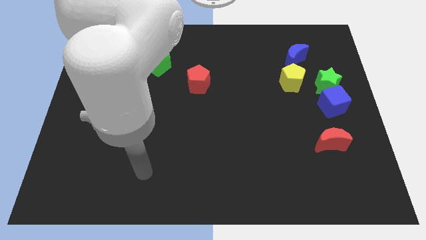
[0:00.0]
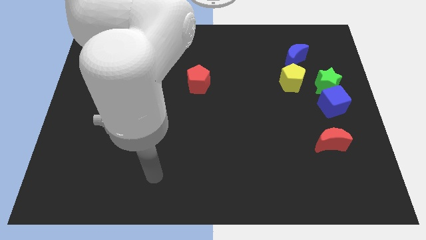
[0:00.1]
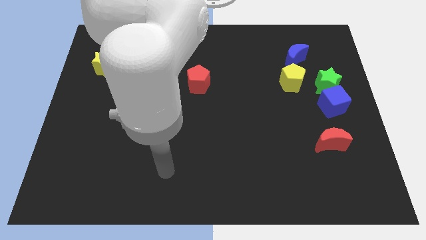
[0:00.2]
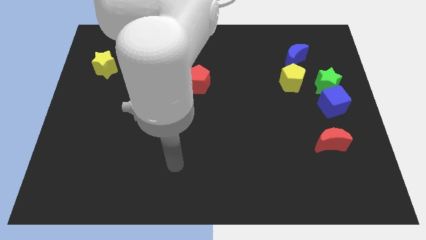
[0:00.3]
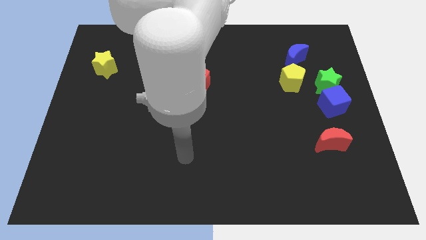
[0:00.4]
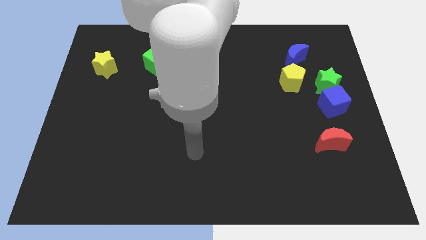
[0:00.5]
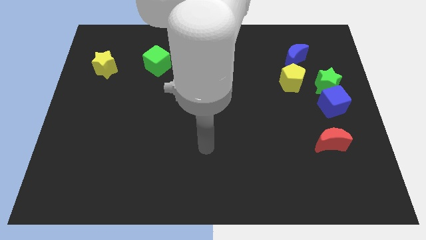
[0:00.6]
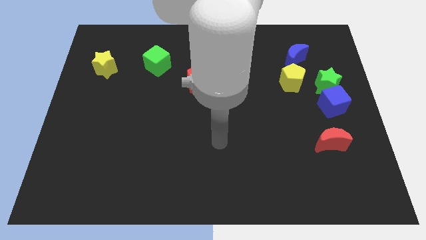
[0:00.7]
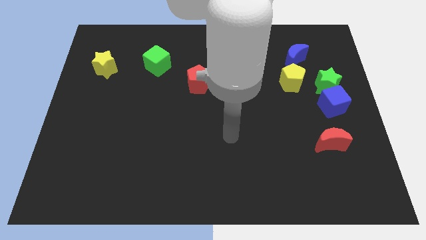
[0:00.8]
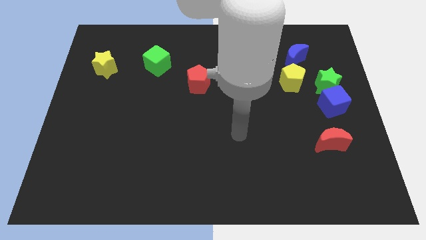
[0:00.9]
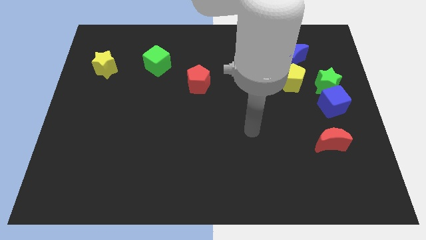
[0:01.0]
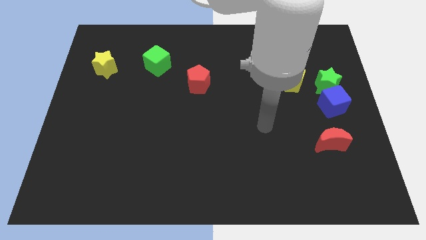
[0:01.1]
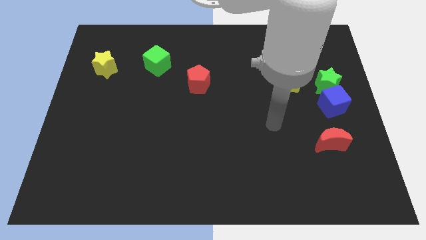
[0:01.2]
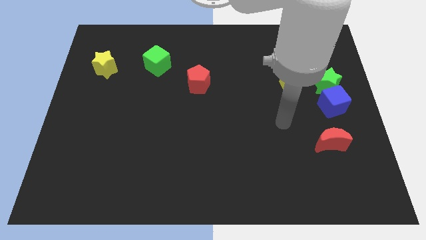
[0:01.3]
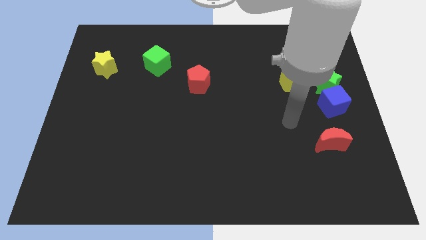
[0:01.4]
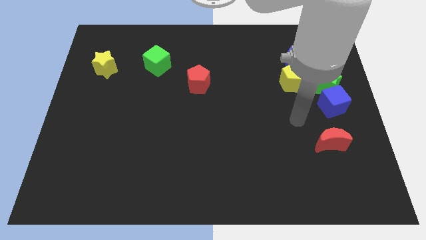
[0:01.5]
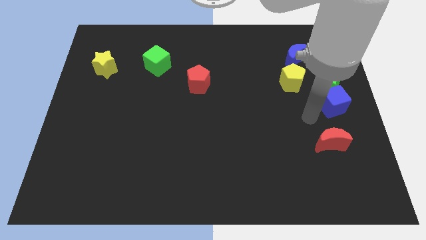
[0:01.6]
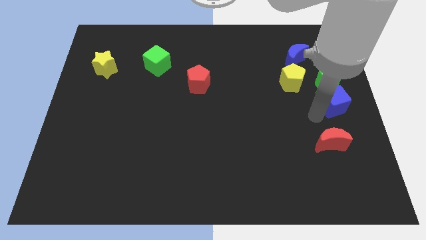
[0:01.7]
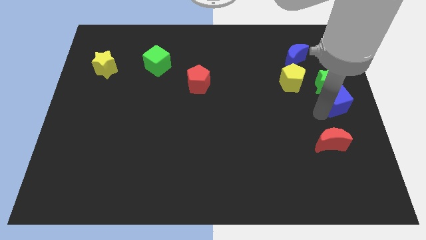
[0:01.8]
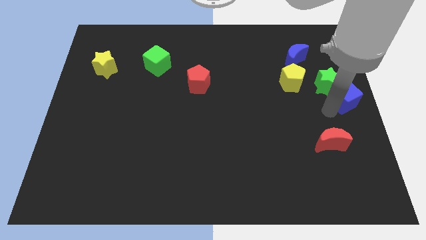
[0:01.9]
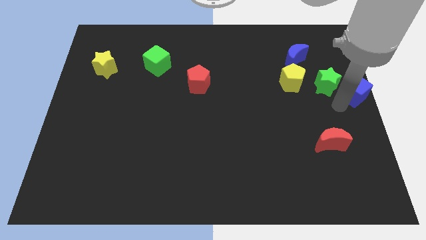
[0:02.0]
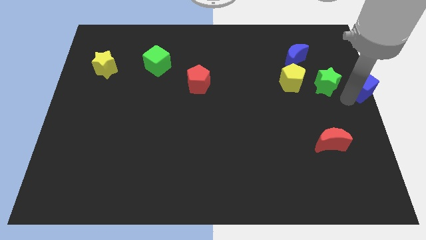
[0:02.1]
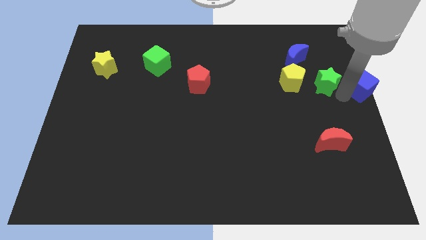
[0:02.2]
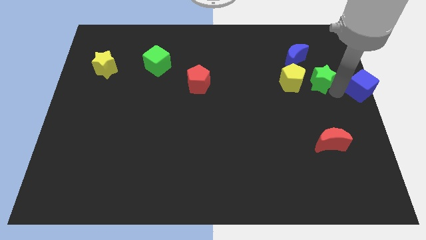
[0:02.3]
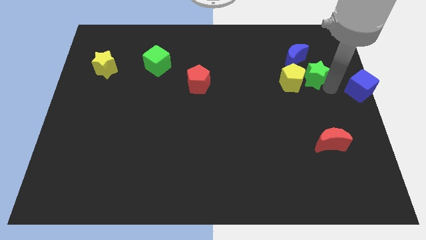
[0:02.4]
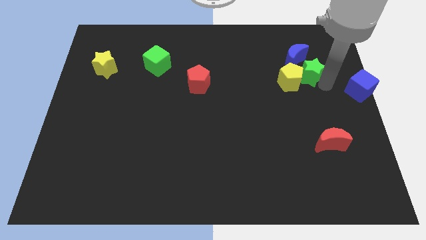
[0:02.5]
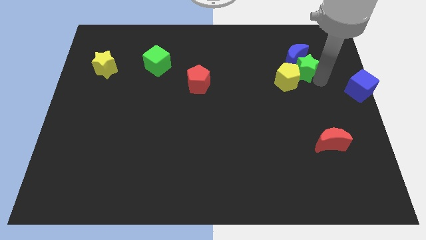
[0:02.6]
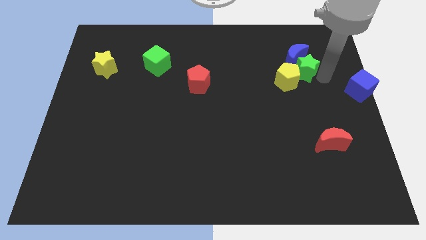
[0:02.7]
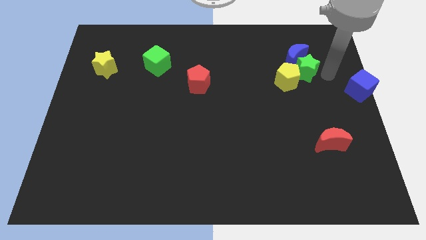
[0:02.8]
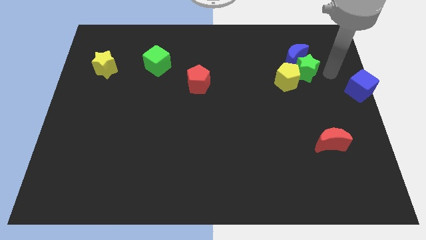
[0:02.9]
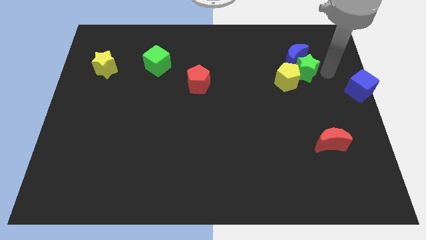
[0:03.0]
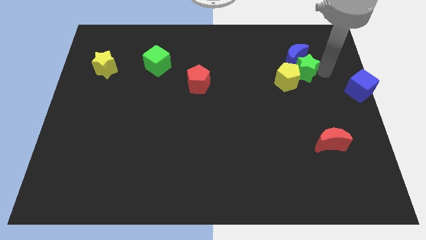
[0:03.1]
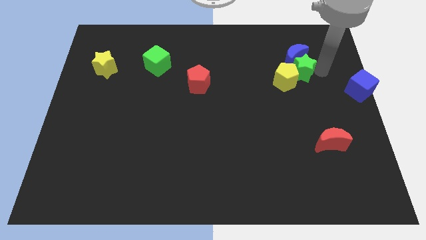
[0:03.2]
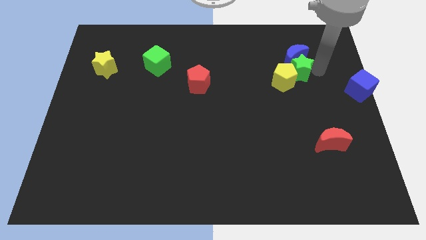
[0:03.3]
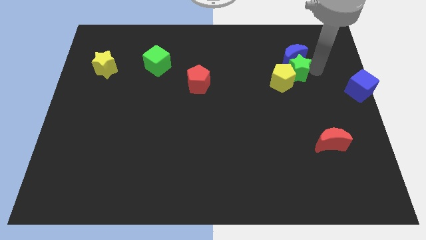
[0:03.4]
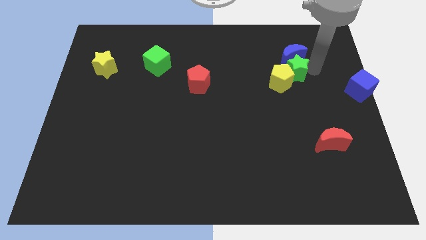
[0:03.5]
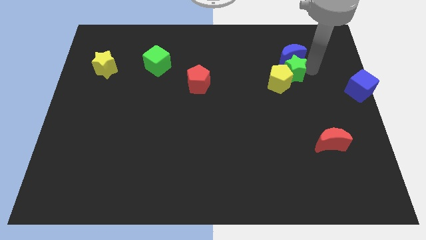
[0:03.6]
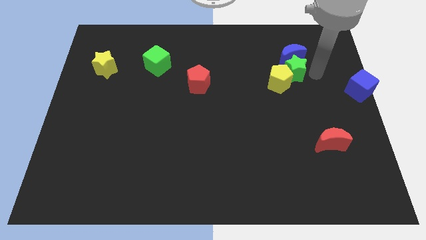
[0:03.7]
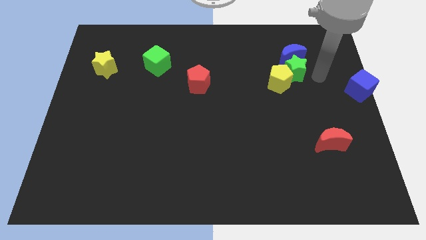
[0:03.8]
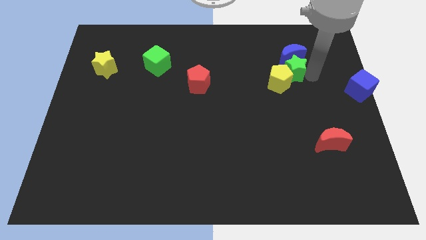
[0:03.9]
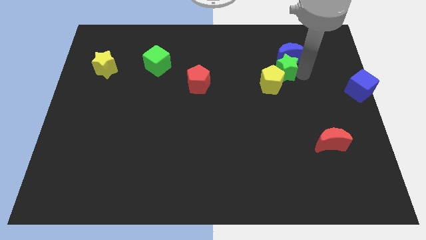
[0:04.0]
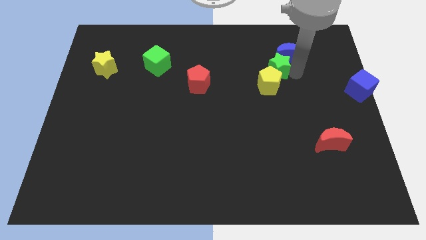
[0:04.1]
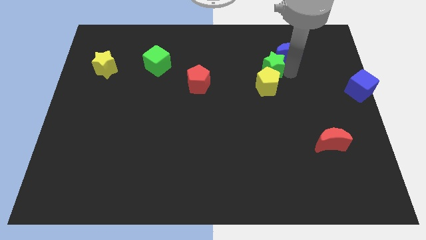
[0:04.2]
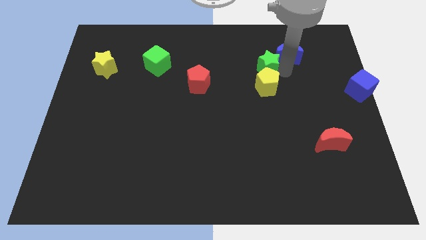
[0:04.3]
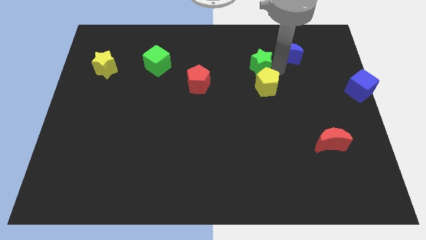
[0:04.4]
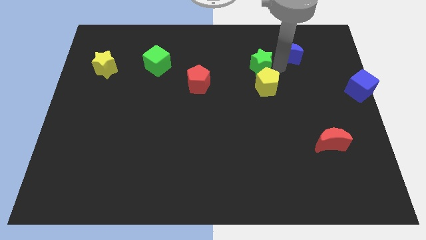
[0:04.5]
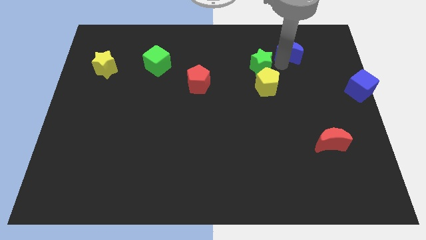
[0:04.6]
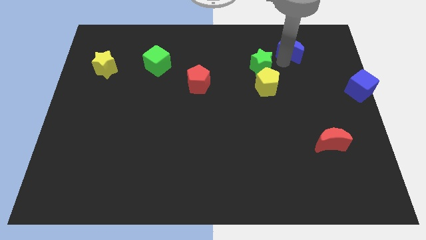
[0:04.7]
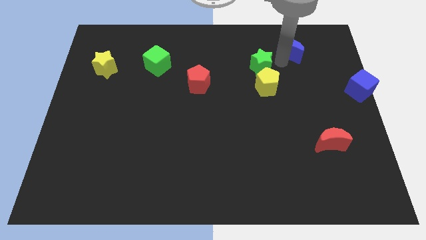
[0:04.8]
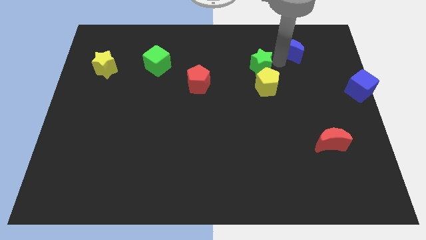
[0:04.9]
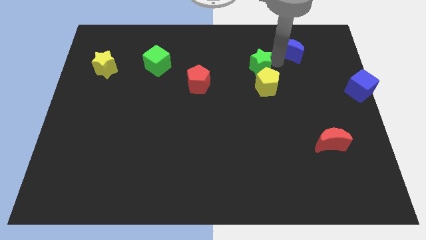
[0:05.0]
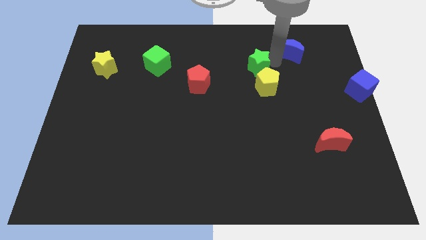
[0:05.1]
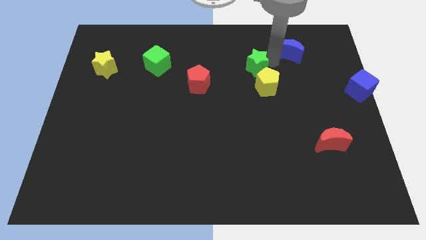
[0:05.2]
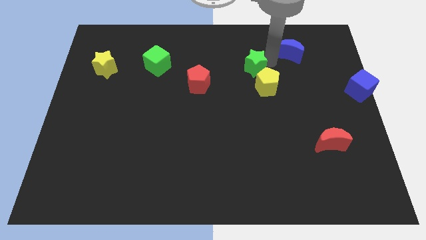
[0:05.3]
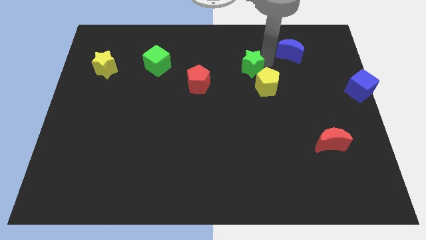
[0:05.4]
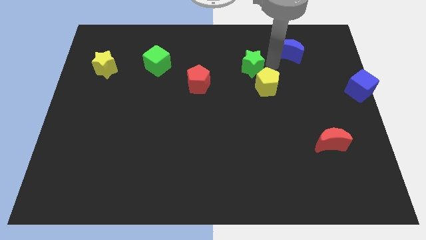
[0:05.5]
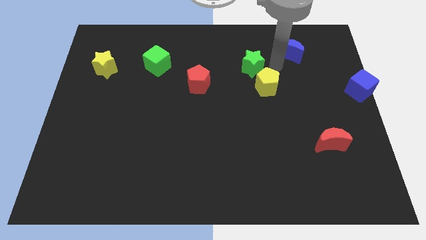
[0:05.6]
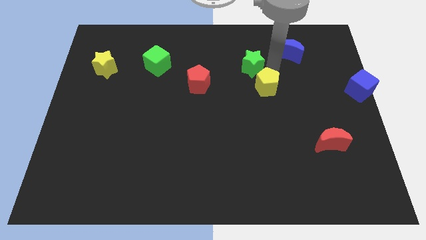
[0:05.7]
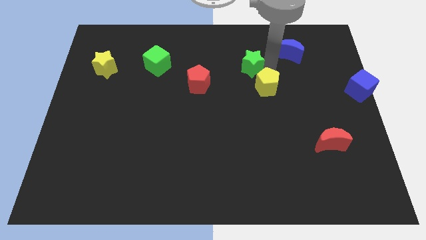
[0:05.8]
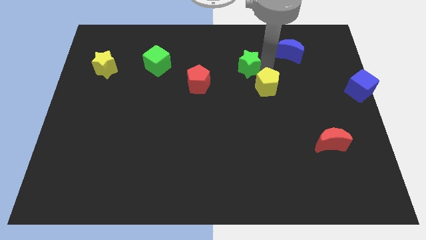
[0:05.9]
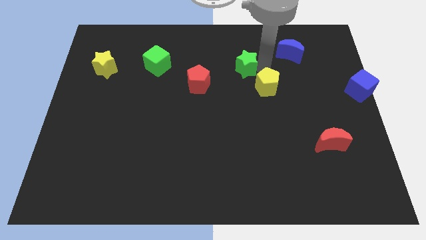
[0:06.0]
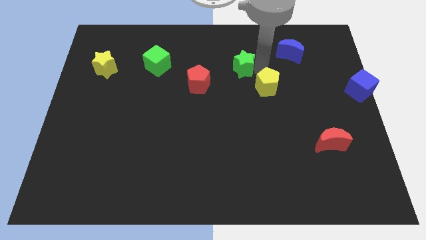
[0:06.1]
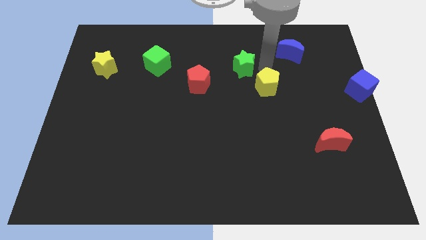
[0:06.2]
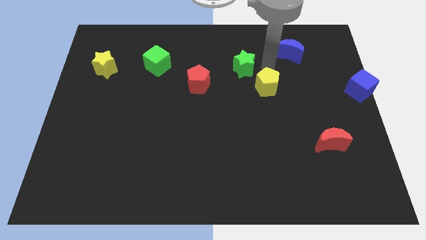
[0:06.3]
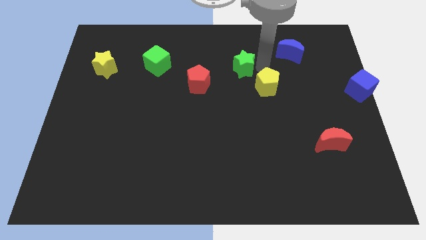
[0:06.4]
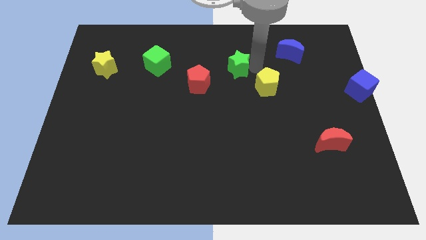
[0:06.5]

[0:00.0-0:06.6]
put the green star to the top right of the red pentagon
